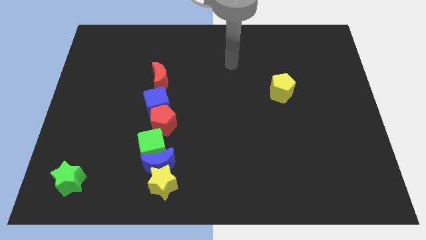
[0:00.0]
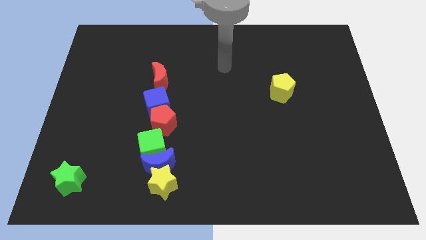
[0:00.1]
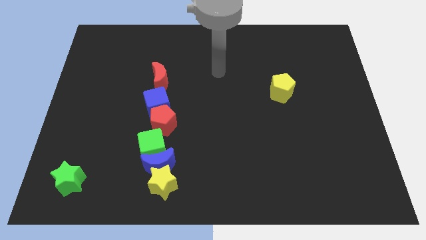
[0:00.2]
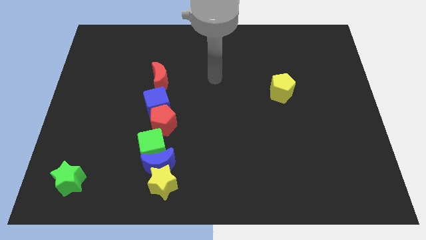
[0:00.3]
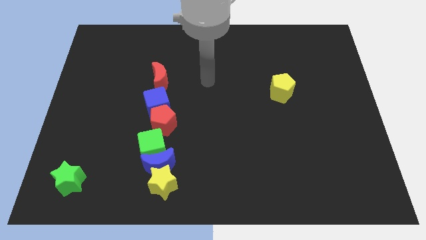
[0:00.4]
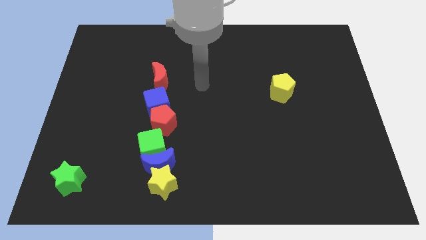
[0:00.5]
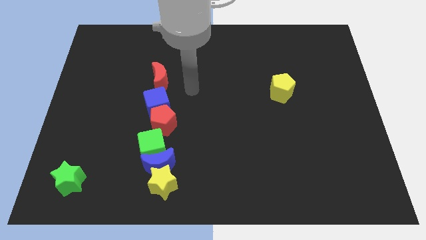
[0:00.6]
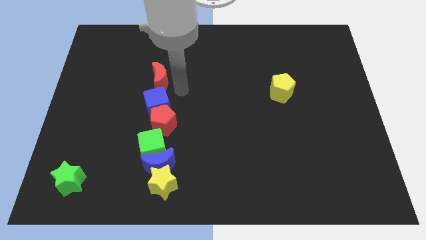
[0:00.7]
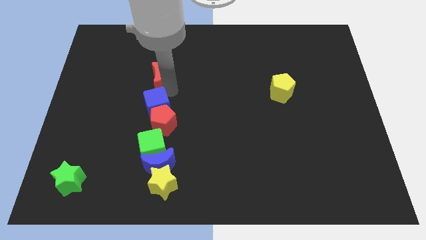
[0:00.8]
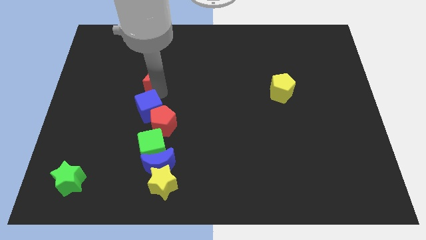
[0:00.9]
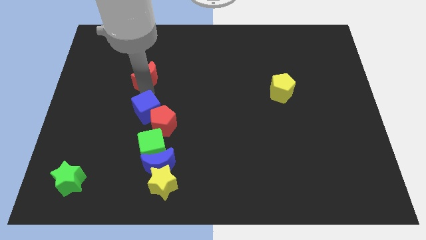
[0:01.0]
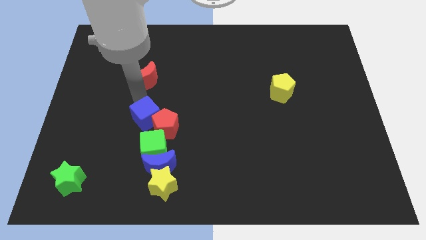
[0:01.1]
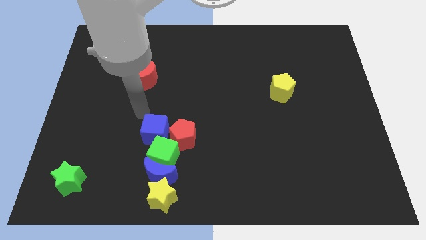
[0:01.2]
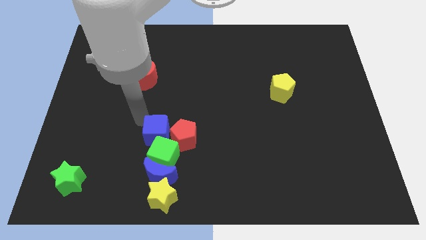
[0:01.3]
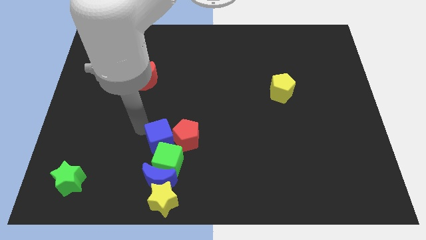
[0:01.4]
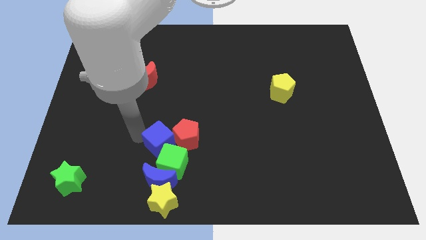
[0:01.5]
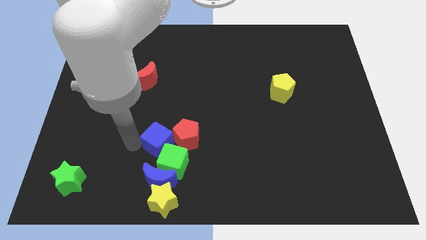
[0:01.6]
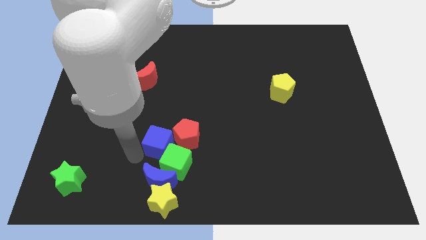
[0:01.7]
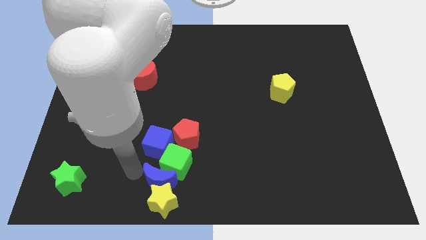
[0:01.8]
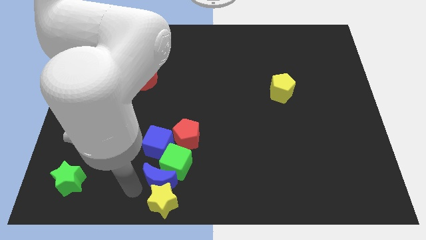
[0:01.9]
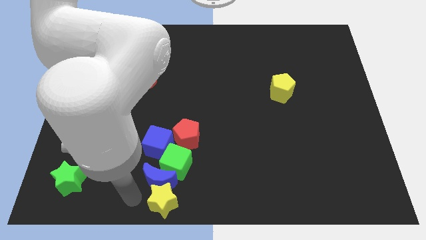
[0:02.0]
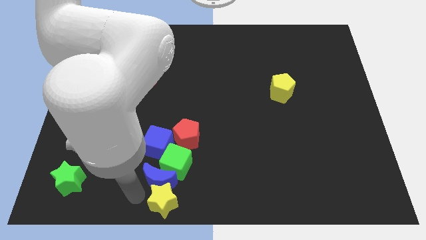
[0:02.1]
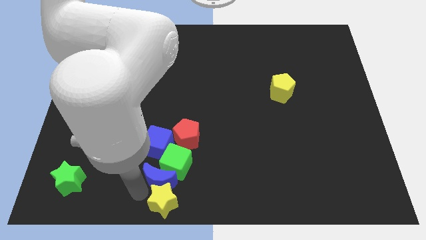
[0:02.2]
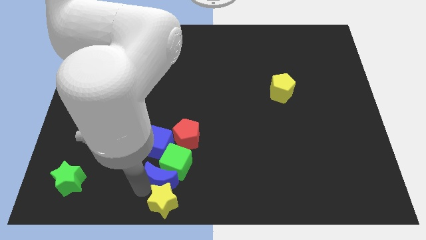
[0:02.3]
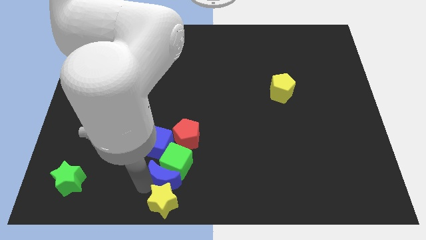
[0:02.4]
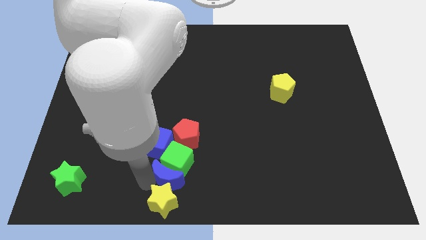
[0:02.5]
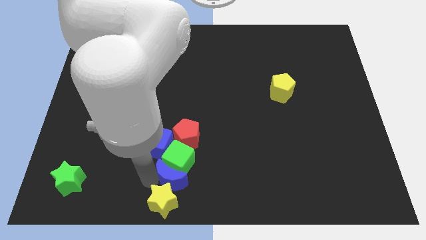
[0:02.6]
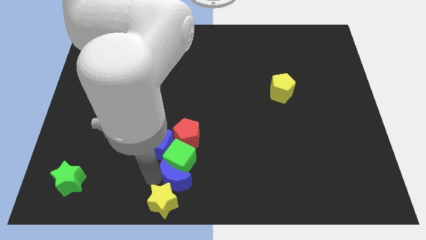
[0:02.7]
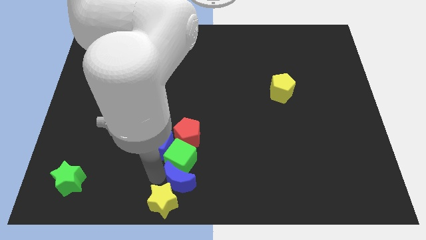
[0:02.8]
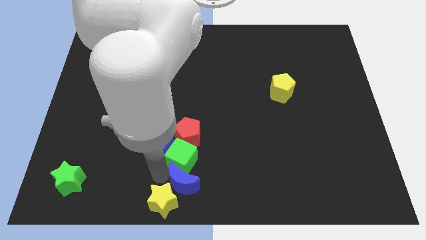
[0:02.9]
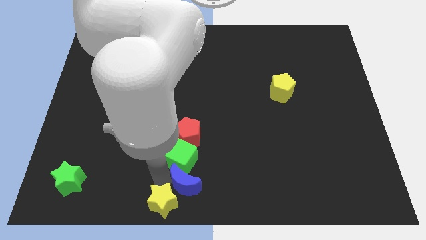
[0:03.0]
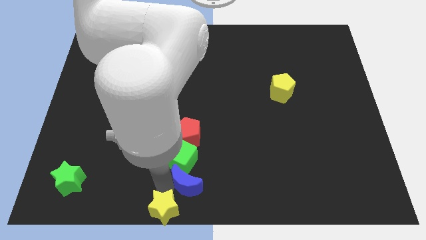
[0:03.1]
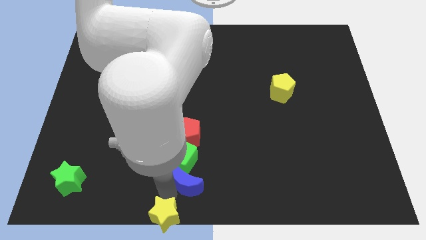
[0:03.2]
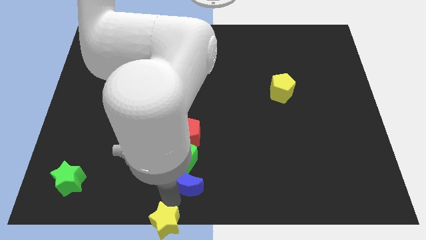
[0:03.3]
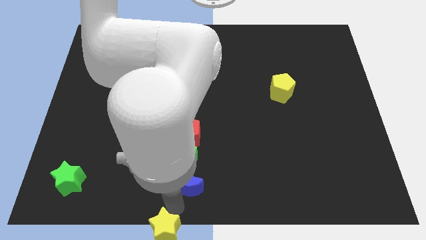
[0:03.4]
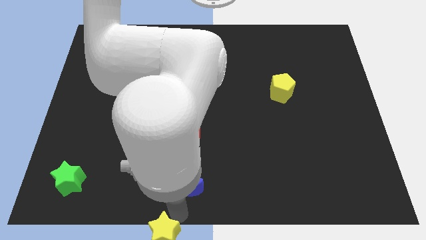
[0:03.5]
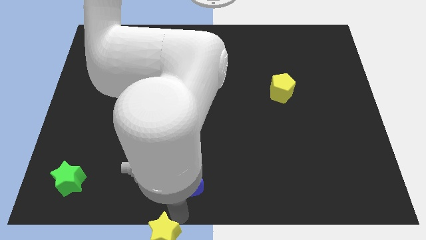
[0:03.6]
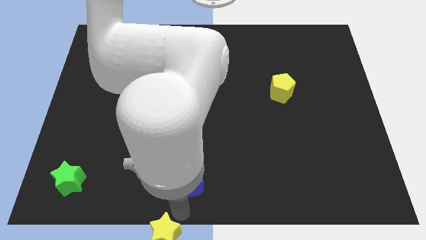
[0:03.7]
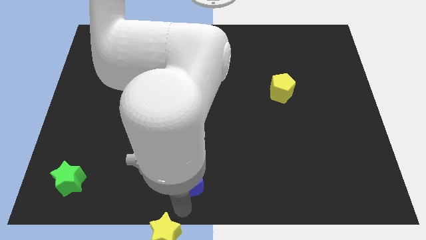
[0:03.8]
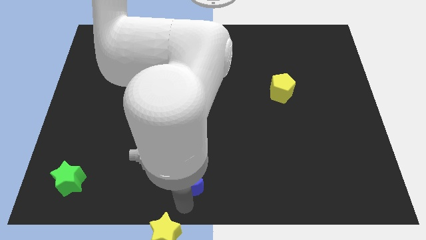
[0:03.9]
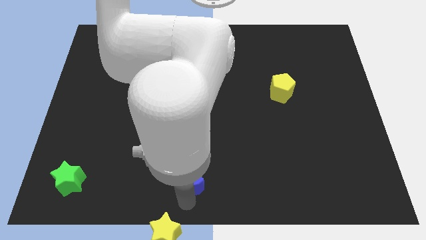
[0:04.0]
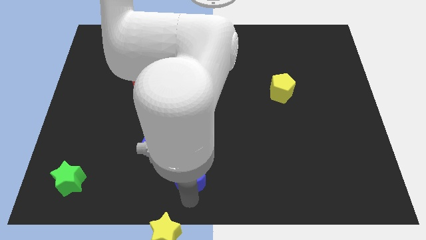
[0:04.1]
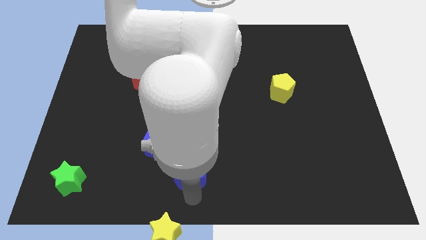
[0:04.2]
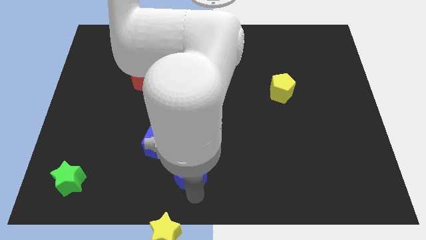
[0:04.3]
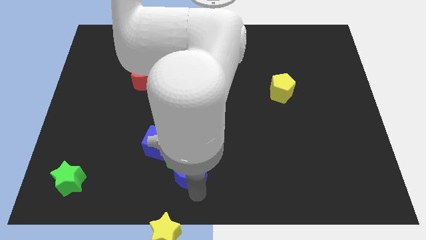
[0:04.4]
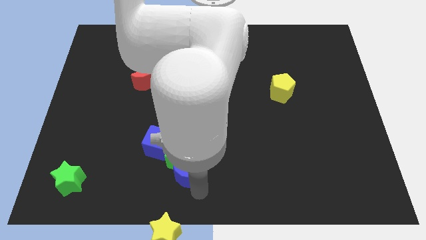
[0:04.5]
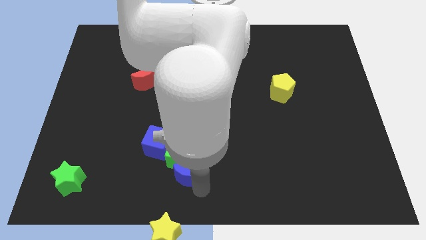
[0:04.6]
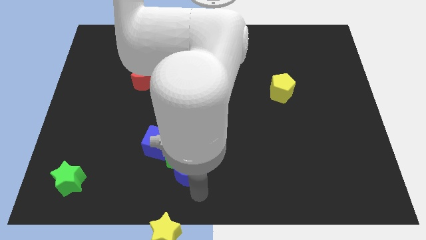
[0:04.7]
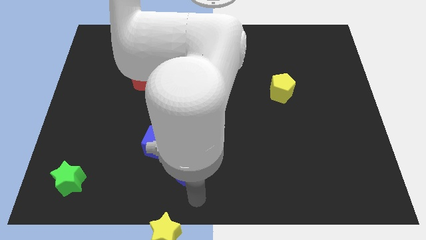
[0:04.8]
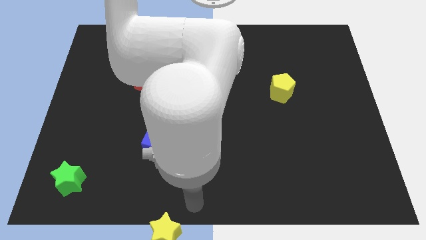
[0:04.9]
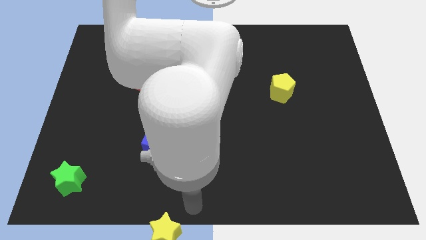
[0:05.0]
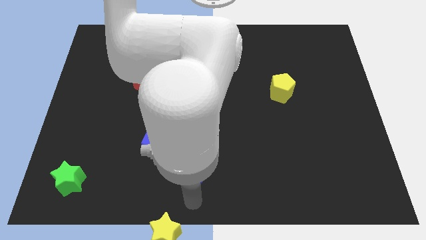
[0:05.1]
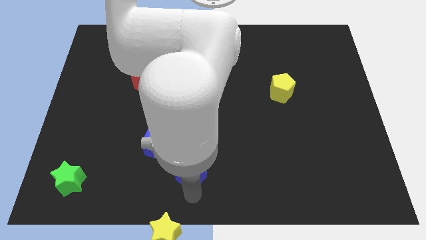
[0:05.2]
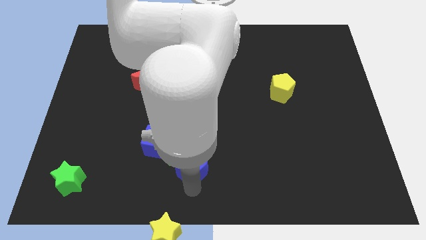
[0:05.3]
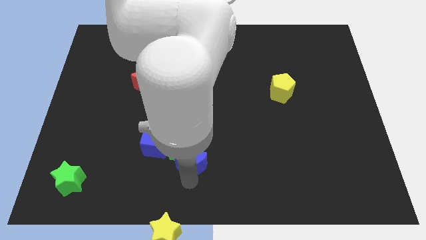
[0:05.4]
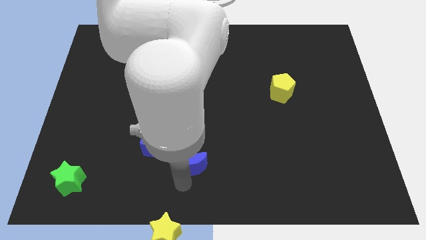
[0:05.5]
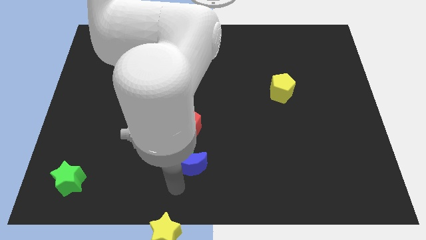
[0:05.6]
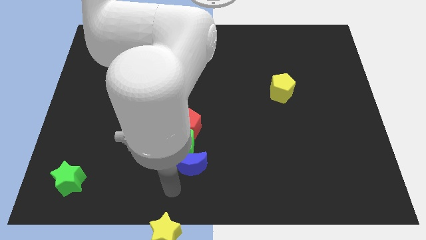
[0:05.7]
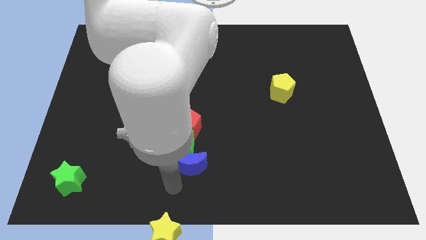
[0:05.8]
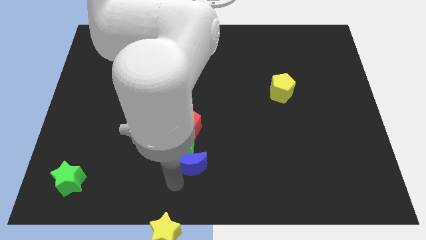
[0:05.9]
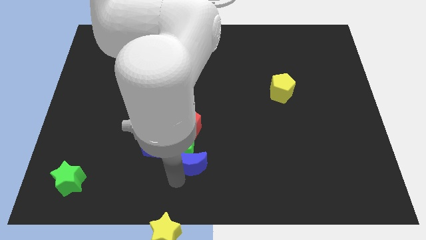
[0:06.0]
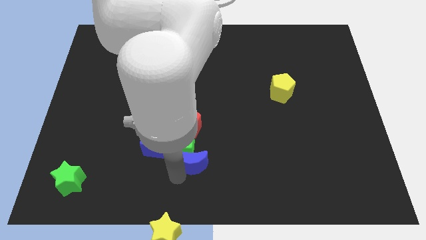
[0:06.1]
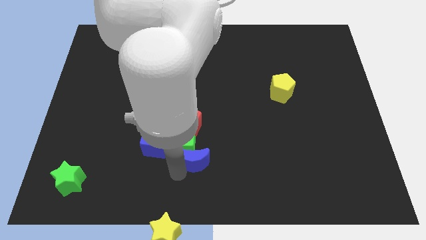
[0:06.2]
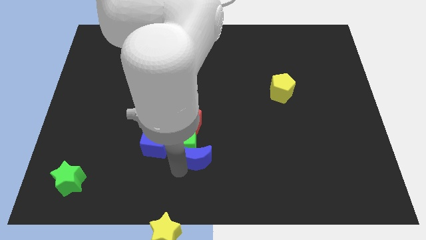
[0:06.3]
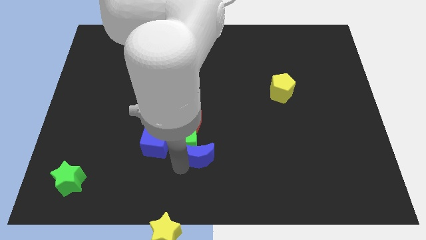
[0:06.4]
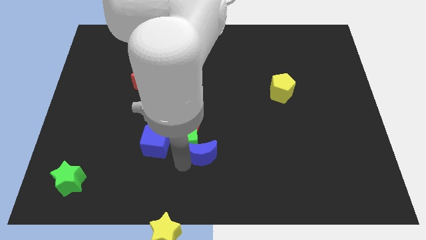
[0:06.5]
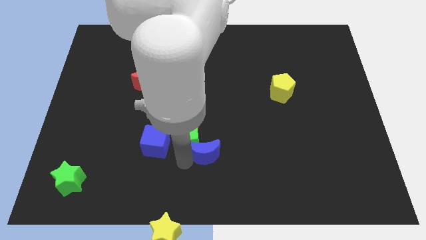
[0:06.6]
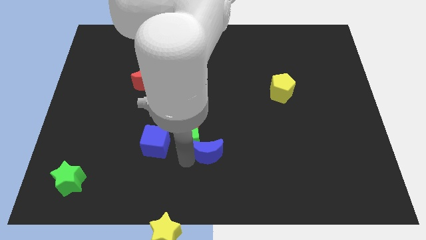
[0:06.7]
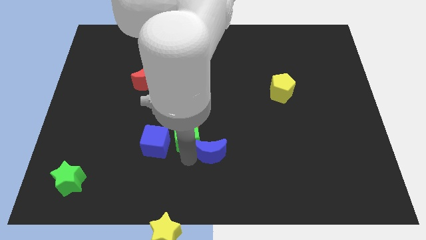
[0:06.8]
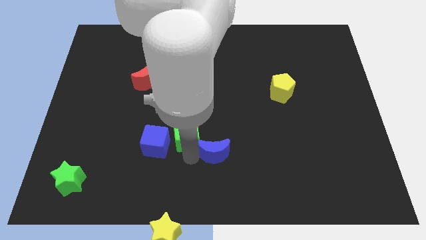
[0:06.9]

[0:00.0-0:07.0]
move the blue moon away from the yellow star and green cube

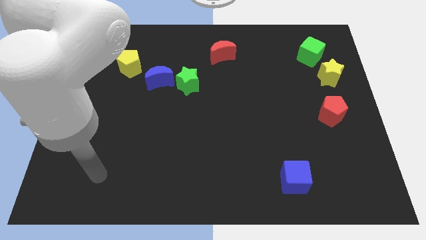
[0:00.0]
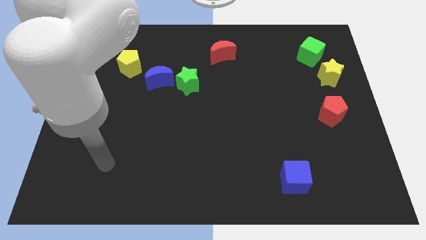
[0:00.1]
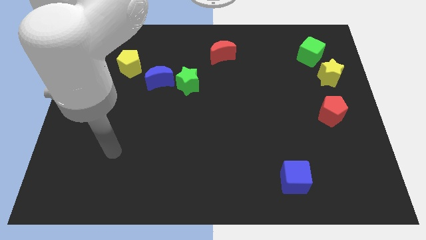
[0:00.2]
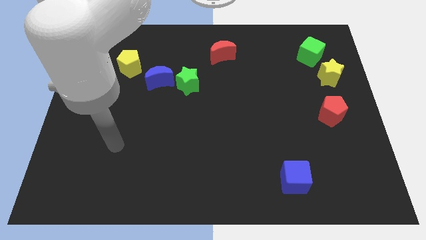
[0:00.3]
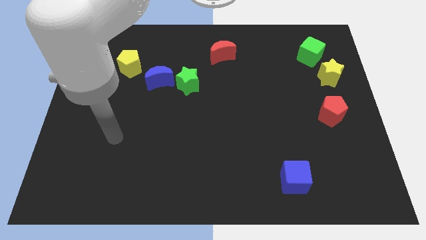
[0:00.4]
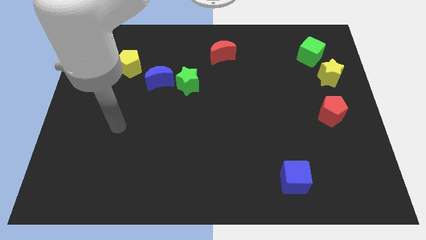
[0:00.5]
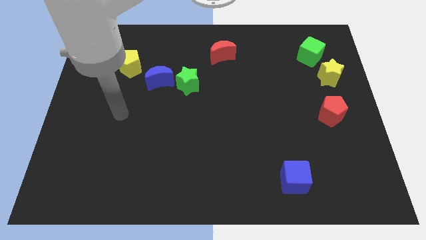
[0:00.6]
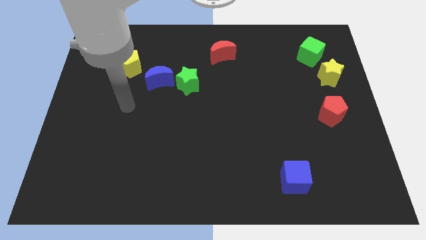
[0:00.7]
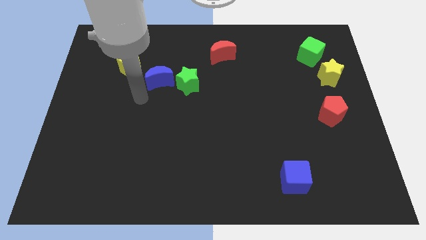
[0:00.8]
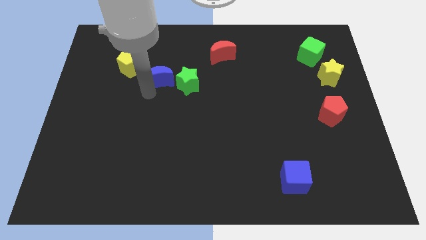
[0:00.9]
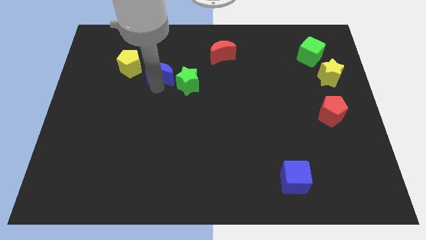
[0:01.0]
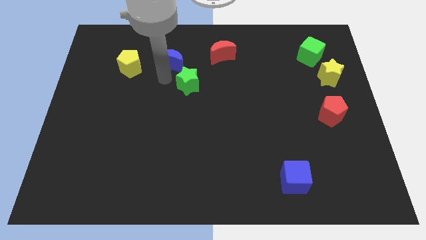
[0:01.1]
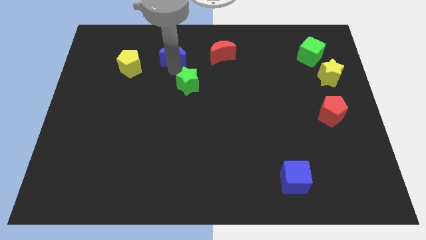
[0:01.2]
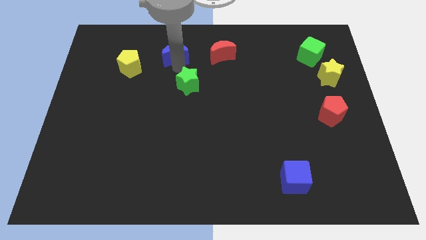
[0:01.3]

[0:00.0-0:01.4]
move the green star away from the blue moon

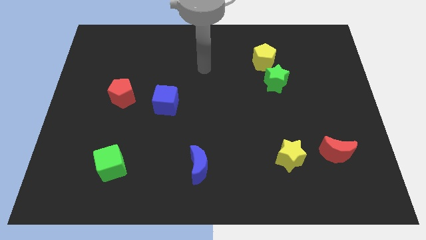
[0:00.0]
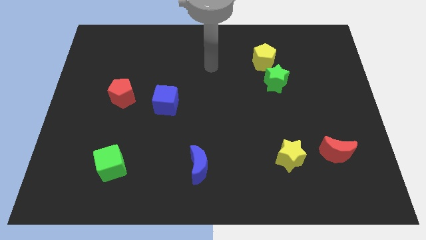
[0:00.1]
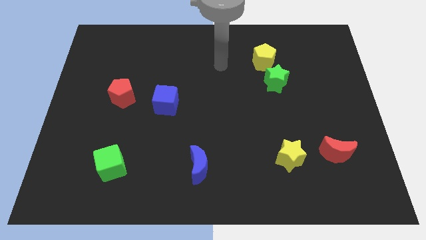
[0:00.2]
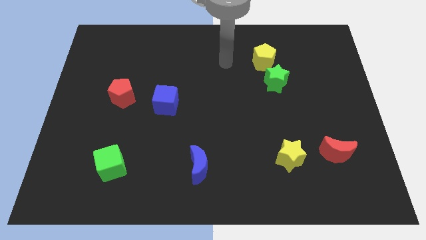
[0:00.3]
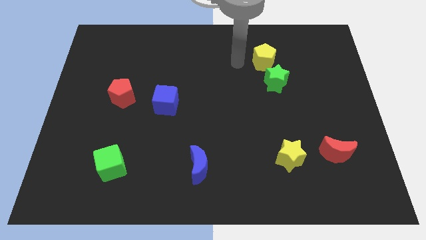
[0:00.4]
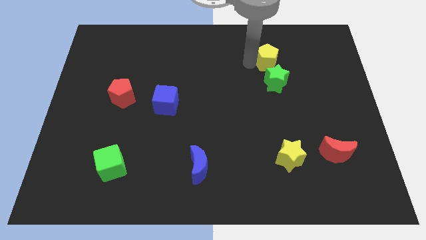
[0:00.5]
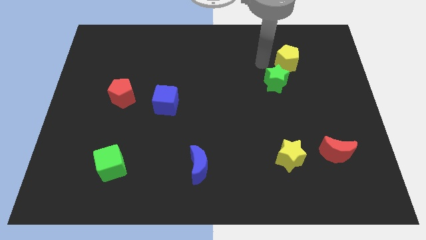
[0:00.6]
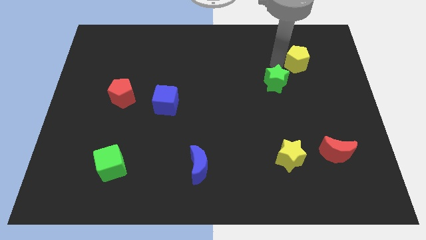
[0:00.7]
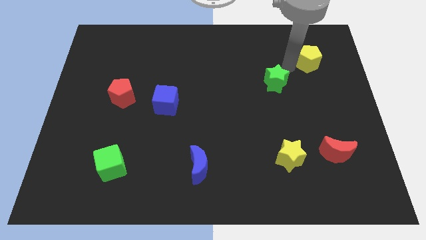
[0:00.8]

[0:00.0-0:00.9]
move the green star away from the yellow pentagon

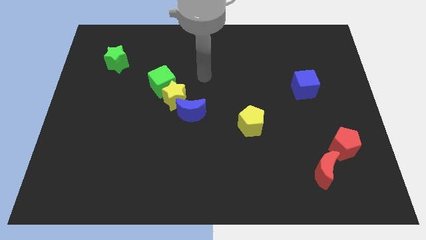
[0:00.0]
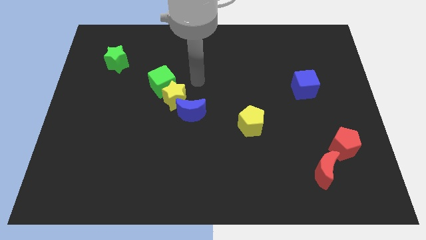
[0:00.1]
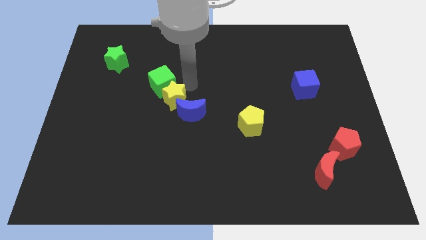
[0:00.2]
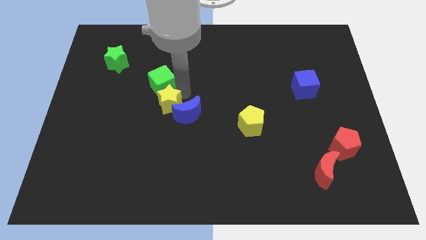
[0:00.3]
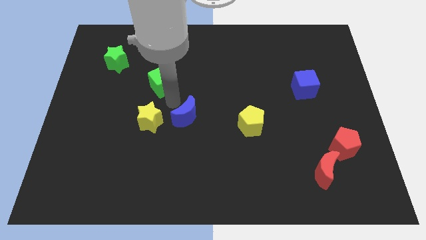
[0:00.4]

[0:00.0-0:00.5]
pull the green cube apart from the yellow star
